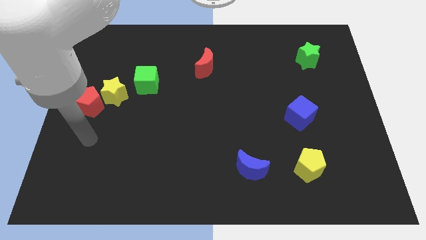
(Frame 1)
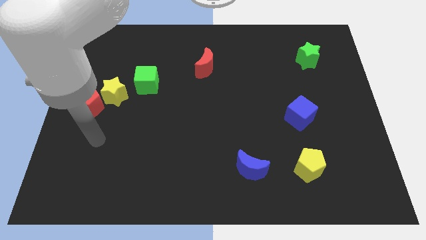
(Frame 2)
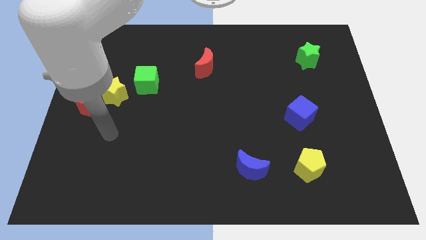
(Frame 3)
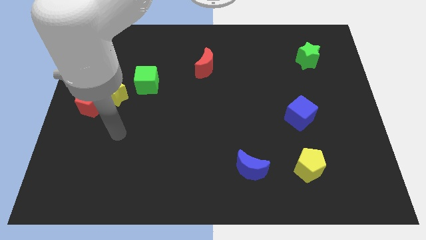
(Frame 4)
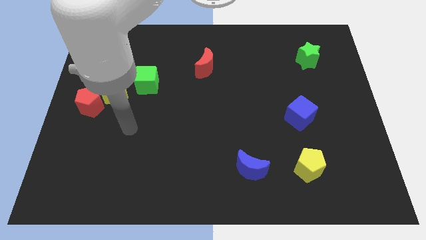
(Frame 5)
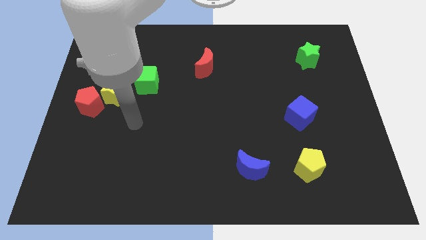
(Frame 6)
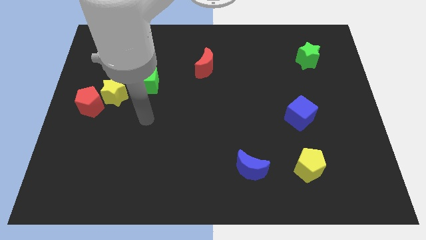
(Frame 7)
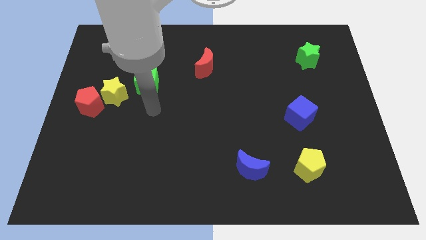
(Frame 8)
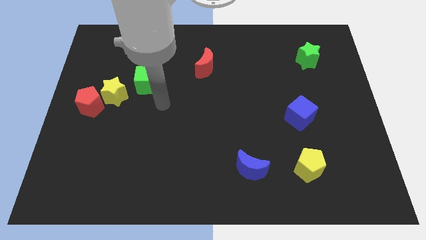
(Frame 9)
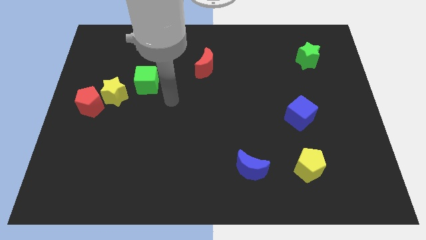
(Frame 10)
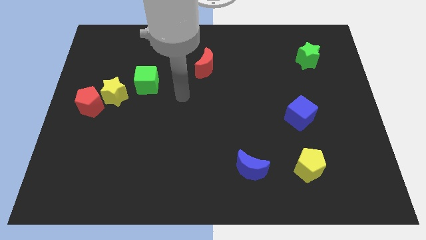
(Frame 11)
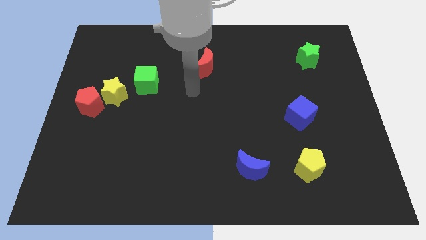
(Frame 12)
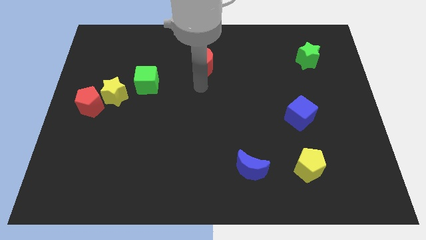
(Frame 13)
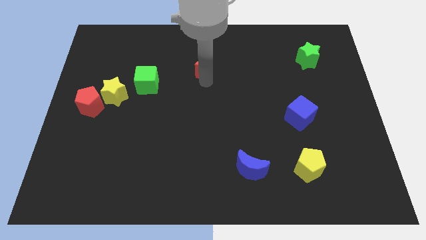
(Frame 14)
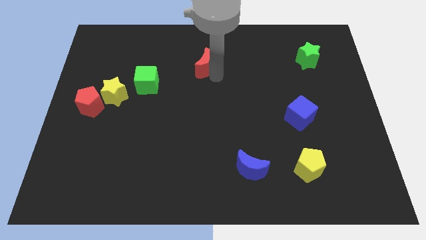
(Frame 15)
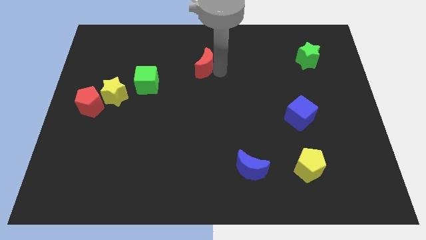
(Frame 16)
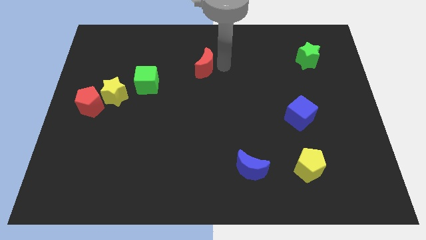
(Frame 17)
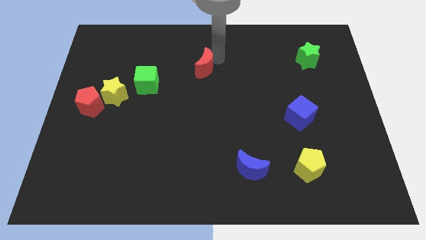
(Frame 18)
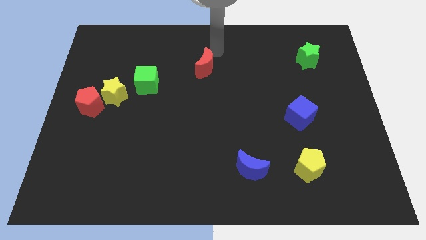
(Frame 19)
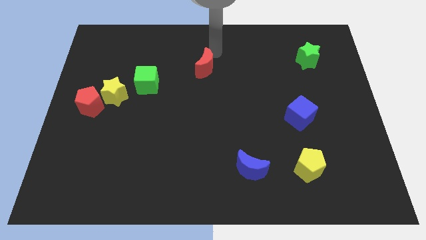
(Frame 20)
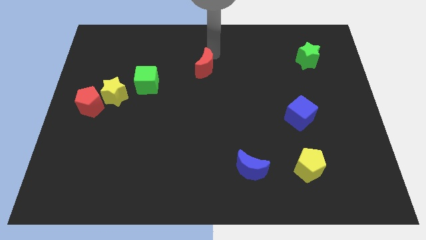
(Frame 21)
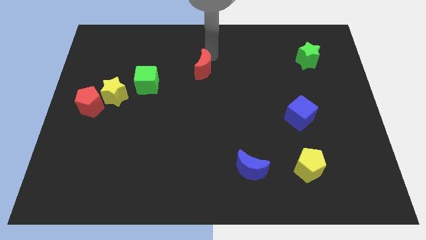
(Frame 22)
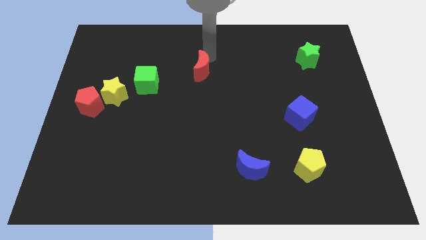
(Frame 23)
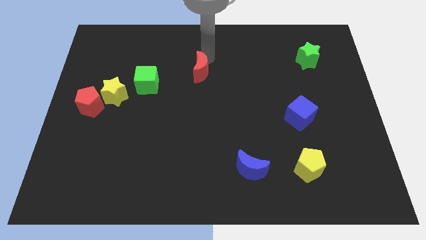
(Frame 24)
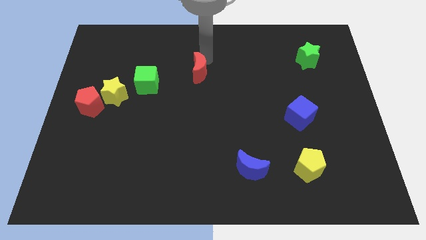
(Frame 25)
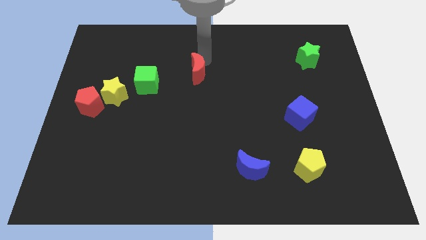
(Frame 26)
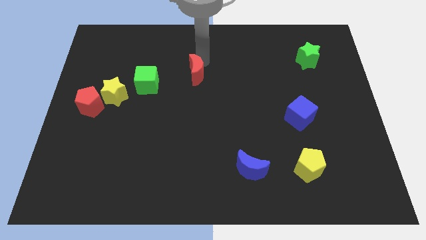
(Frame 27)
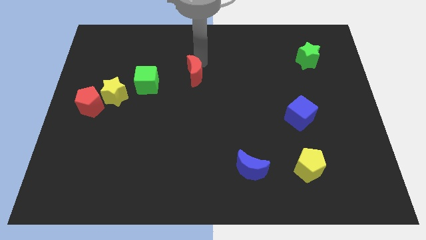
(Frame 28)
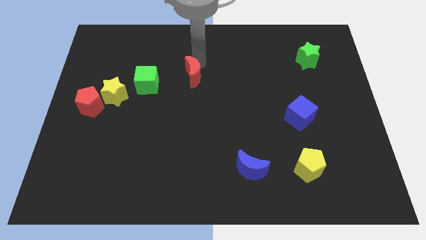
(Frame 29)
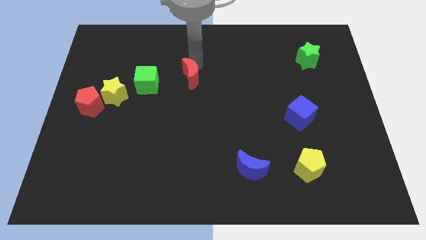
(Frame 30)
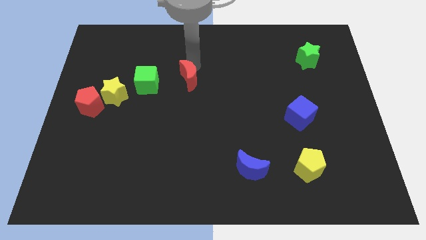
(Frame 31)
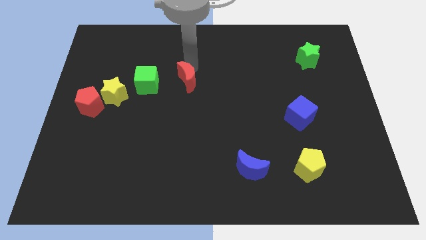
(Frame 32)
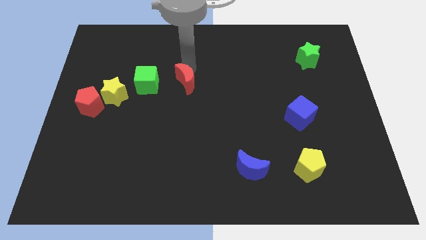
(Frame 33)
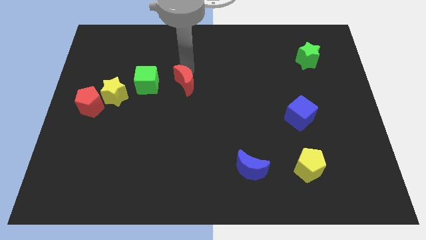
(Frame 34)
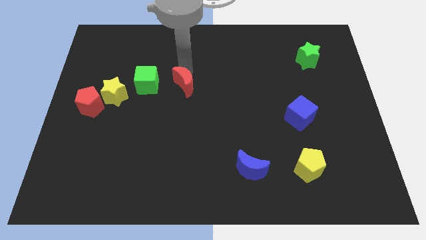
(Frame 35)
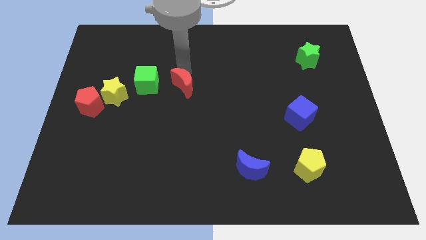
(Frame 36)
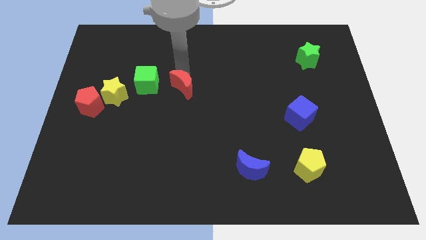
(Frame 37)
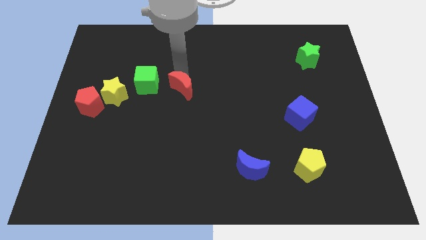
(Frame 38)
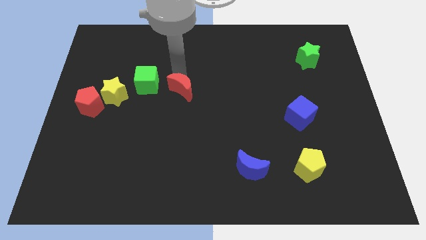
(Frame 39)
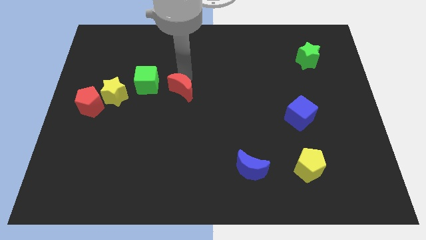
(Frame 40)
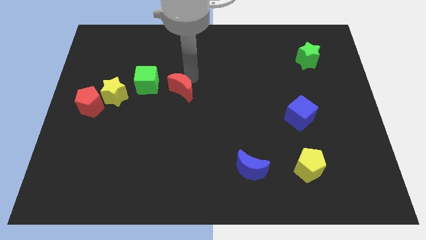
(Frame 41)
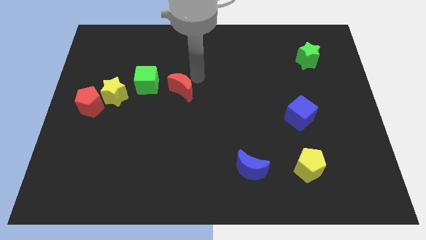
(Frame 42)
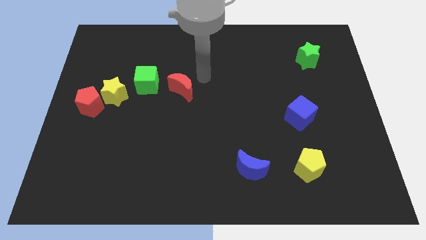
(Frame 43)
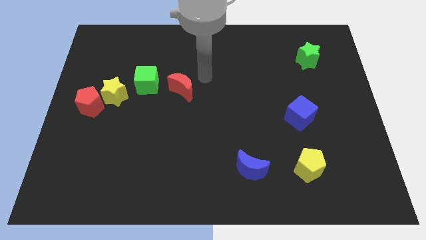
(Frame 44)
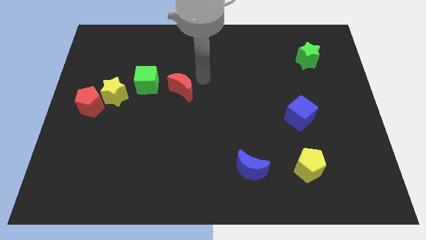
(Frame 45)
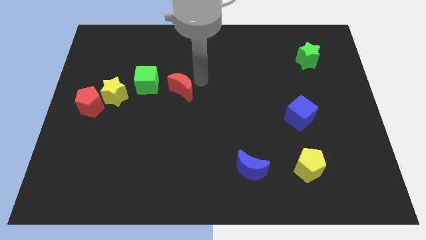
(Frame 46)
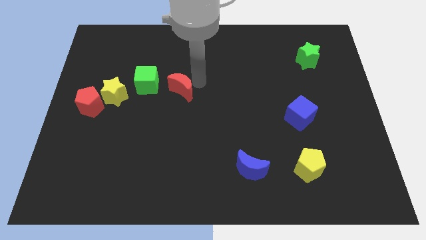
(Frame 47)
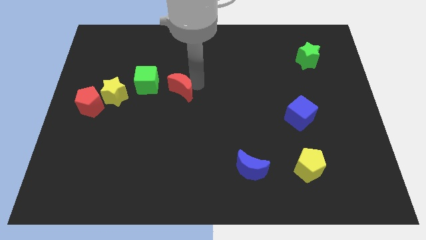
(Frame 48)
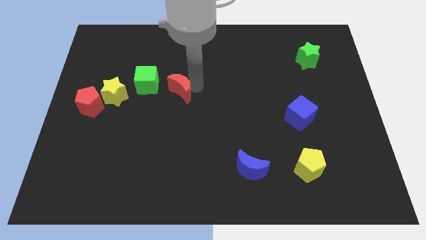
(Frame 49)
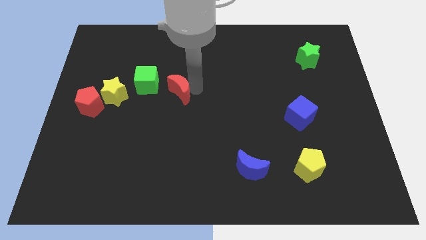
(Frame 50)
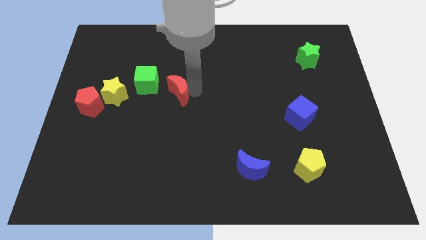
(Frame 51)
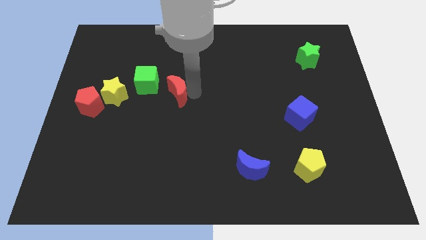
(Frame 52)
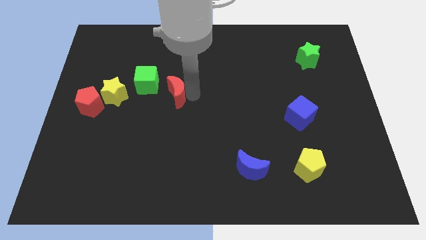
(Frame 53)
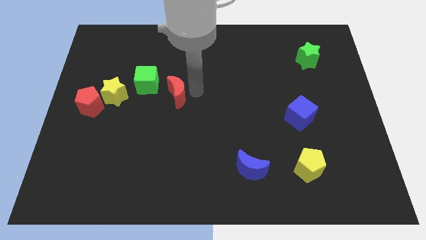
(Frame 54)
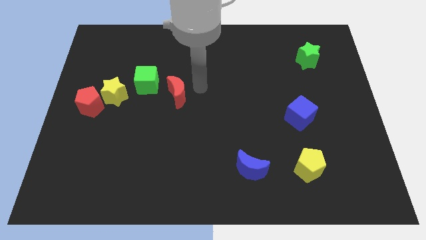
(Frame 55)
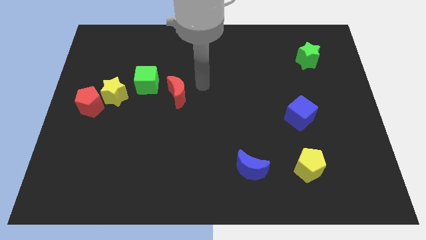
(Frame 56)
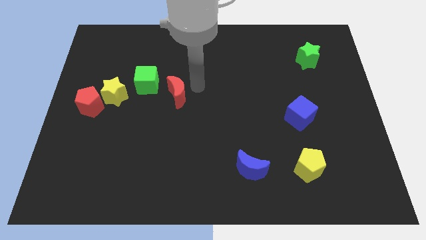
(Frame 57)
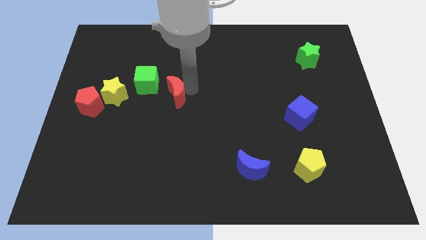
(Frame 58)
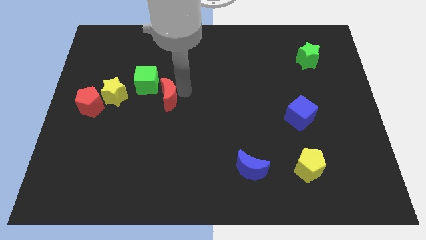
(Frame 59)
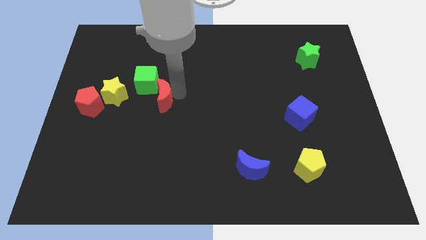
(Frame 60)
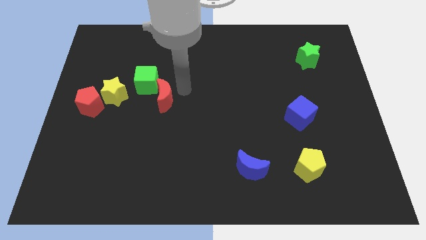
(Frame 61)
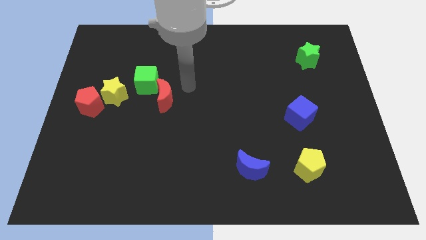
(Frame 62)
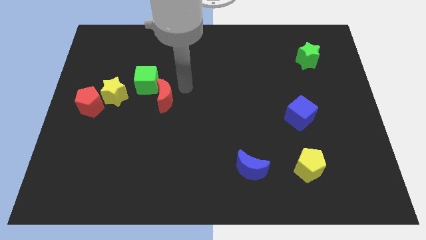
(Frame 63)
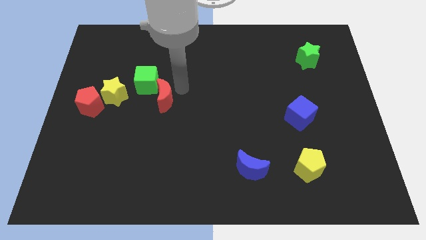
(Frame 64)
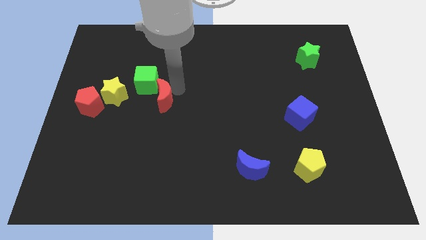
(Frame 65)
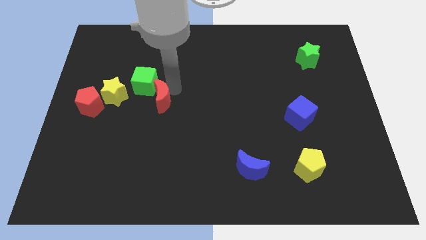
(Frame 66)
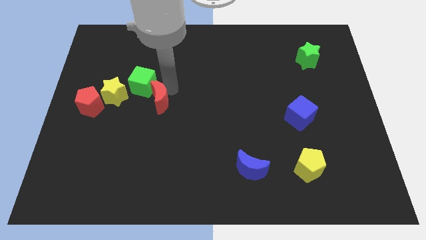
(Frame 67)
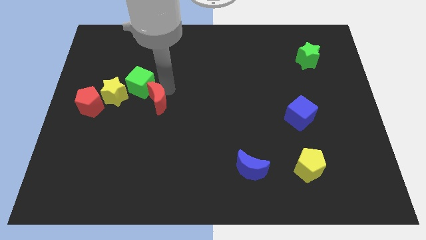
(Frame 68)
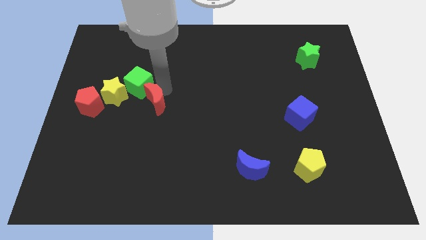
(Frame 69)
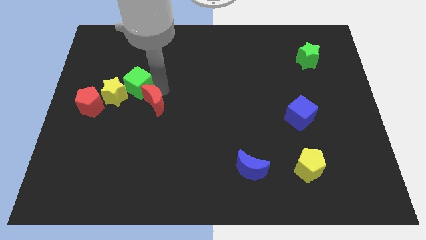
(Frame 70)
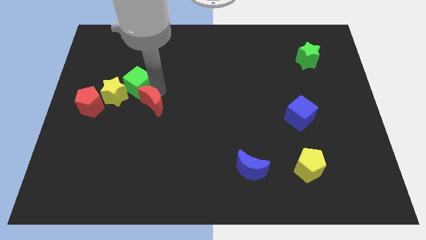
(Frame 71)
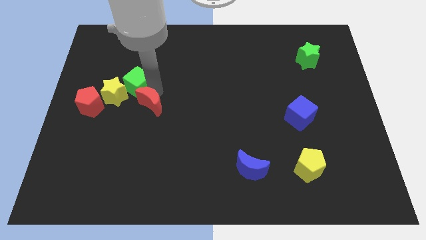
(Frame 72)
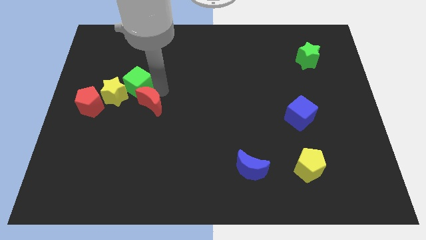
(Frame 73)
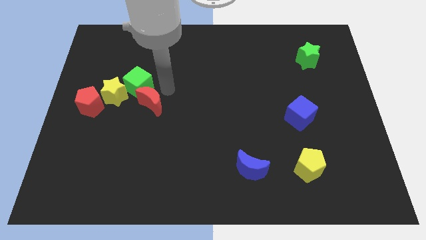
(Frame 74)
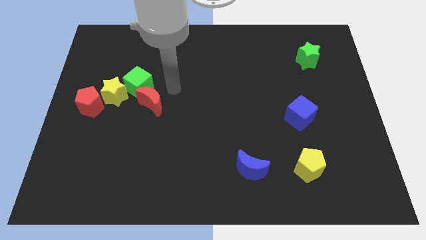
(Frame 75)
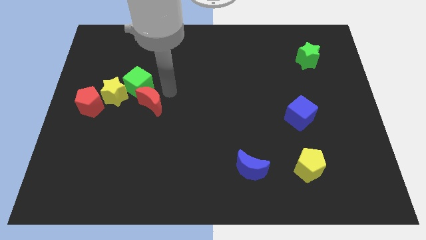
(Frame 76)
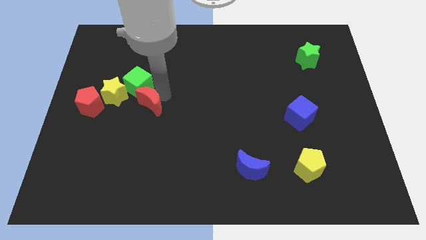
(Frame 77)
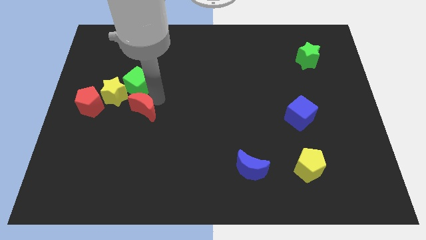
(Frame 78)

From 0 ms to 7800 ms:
move the red moon diagonally downwards and left
